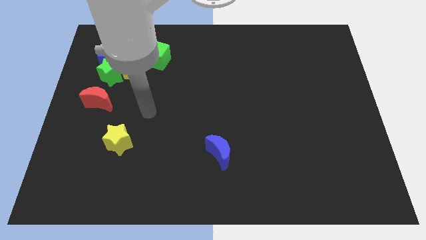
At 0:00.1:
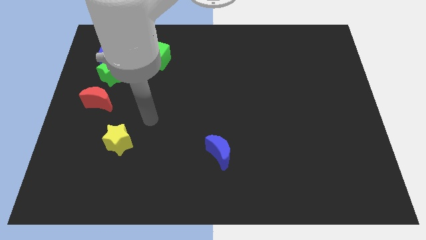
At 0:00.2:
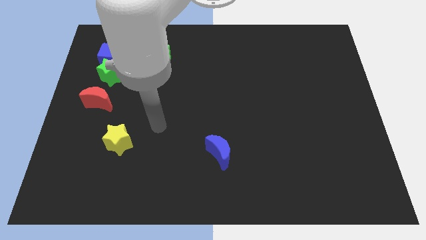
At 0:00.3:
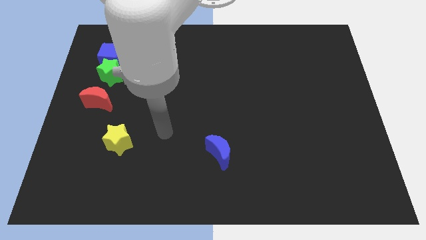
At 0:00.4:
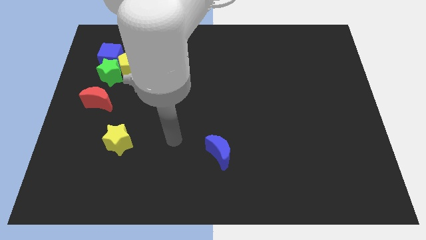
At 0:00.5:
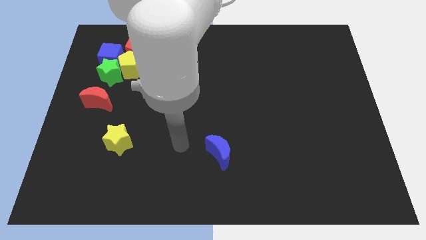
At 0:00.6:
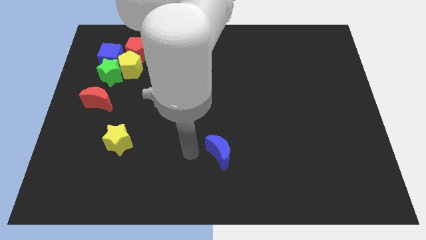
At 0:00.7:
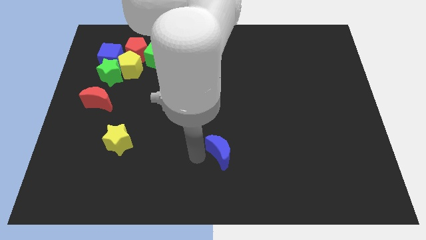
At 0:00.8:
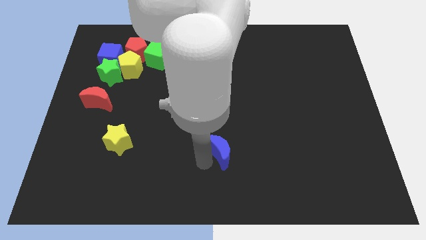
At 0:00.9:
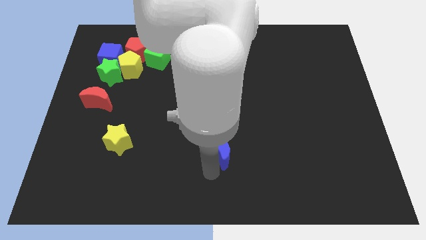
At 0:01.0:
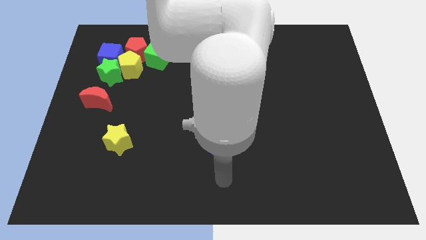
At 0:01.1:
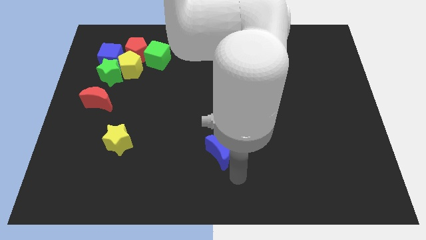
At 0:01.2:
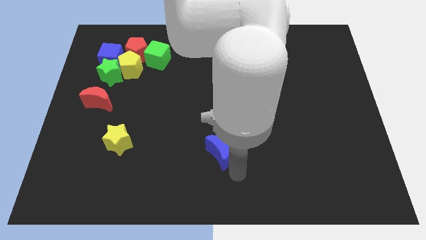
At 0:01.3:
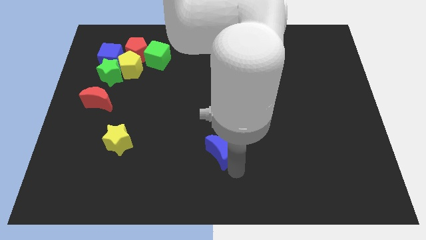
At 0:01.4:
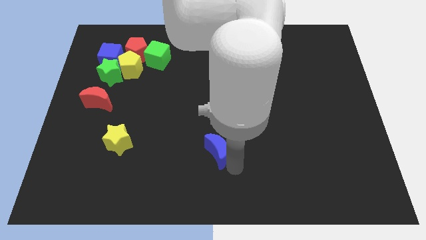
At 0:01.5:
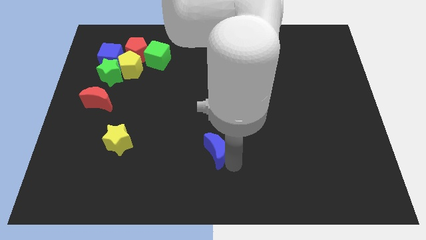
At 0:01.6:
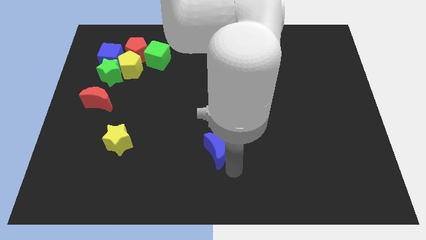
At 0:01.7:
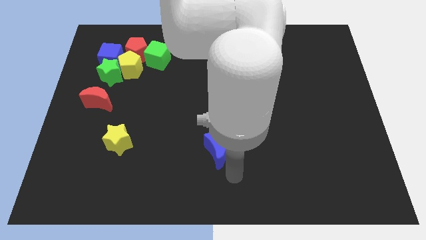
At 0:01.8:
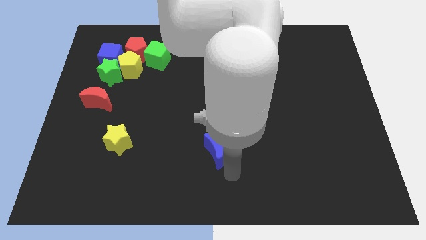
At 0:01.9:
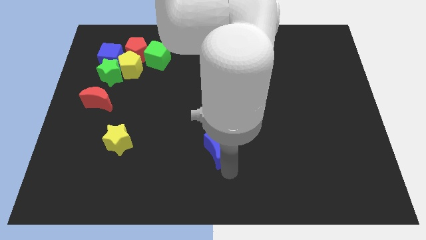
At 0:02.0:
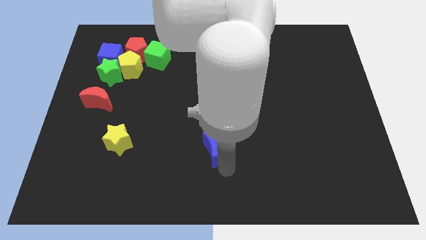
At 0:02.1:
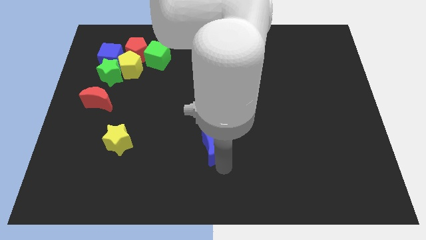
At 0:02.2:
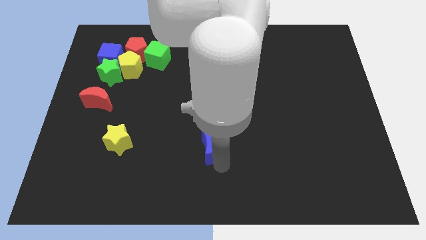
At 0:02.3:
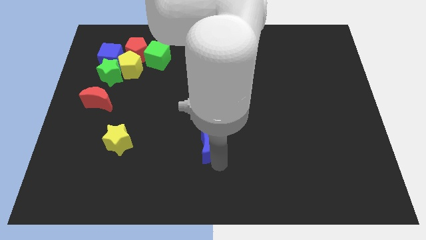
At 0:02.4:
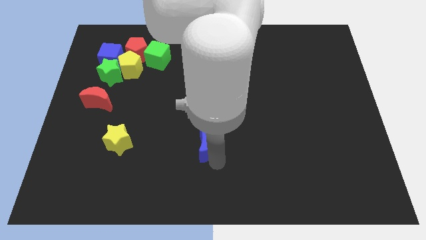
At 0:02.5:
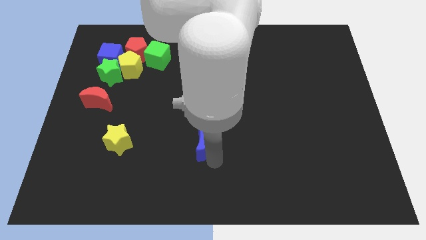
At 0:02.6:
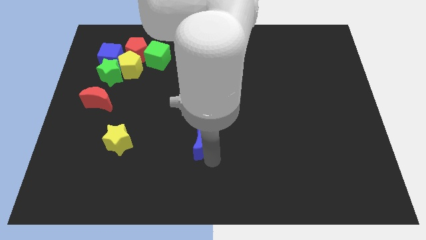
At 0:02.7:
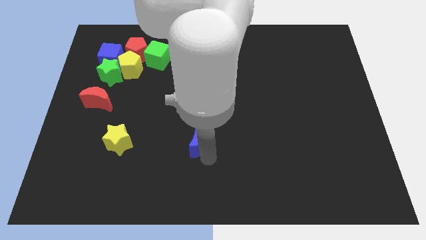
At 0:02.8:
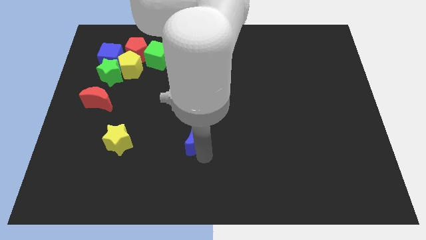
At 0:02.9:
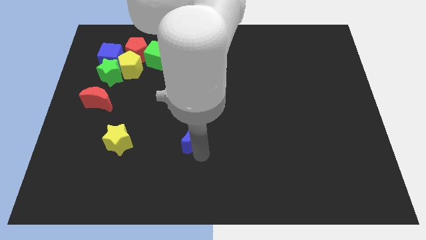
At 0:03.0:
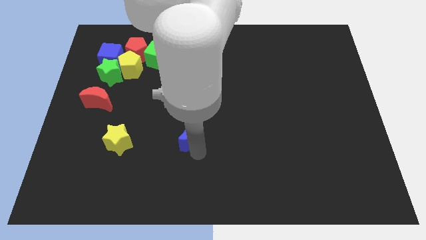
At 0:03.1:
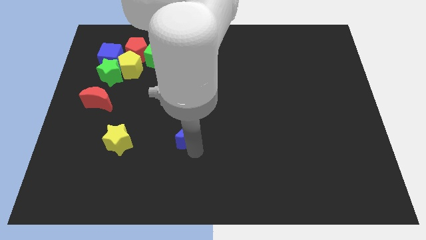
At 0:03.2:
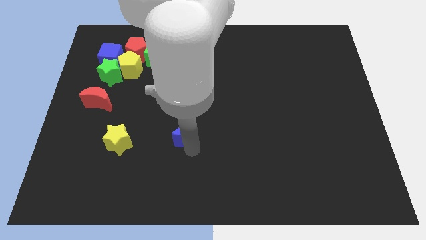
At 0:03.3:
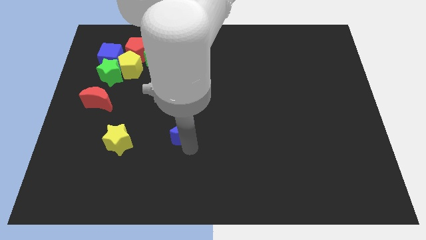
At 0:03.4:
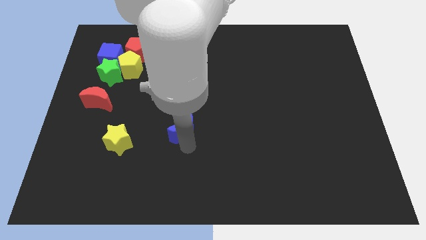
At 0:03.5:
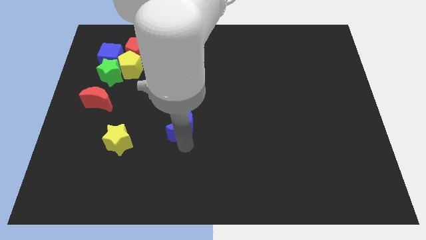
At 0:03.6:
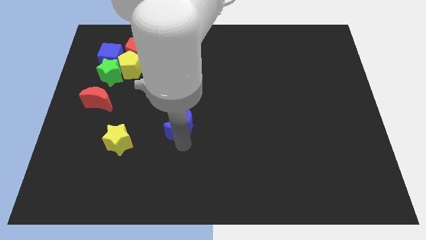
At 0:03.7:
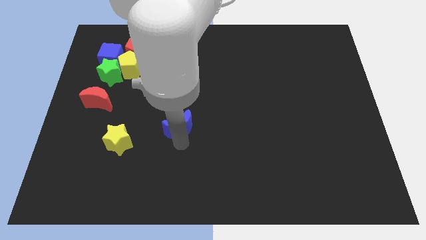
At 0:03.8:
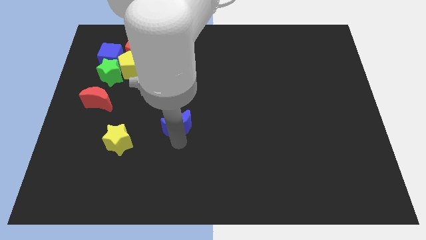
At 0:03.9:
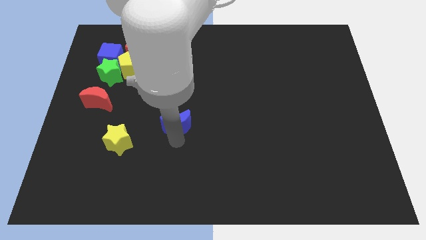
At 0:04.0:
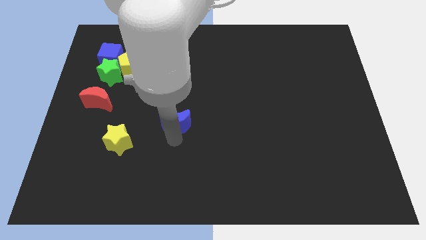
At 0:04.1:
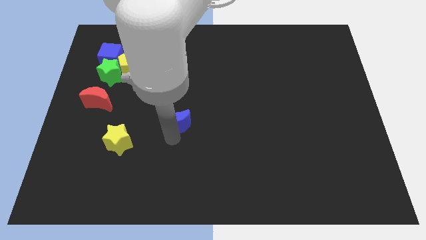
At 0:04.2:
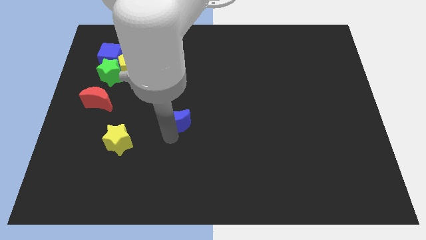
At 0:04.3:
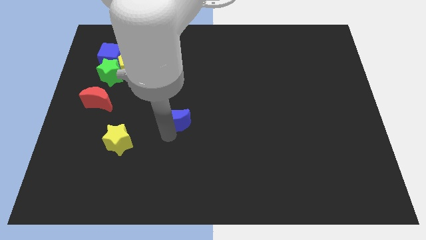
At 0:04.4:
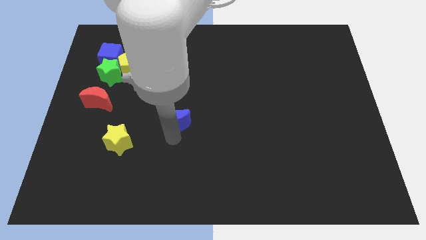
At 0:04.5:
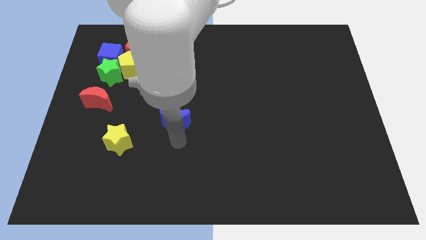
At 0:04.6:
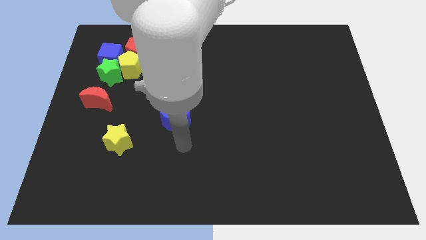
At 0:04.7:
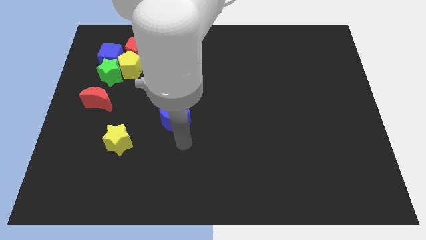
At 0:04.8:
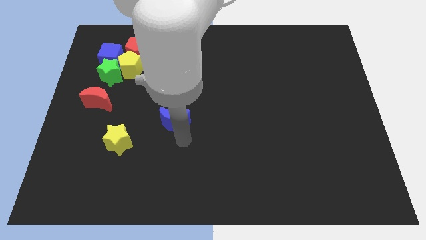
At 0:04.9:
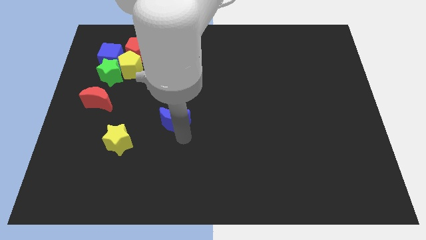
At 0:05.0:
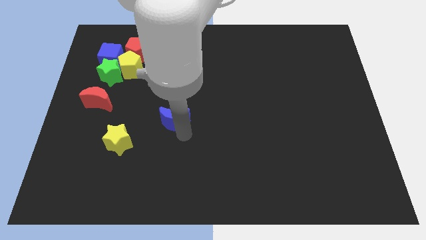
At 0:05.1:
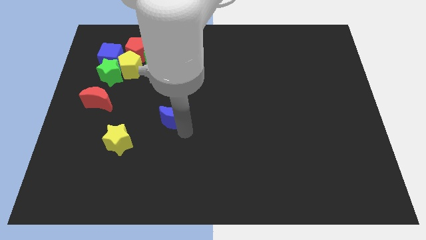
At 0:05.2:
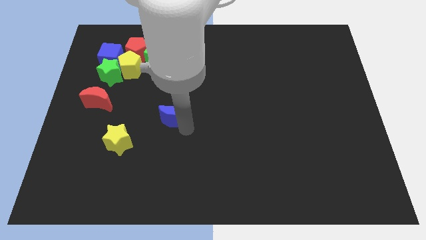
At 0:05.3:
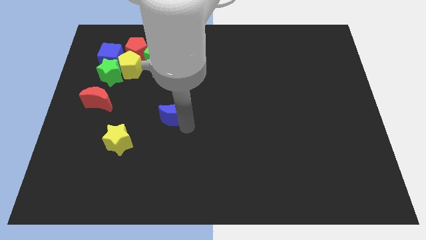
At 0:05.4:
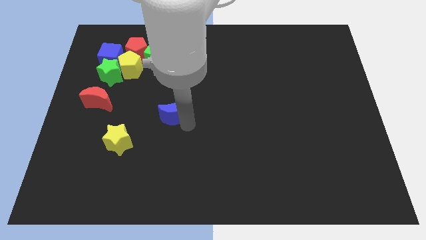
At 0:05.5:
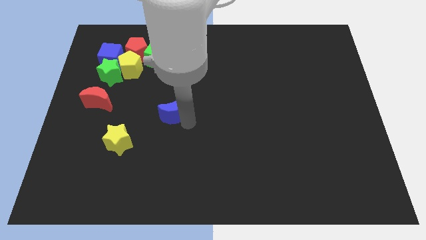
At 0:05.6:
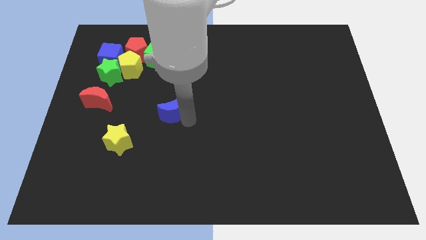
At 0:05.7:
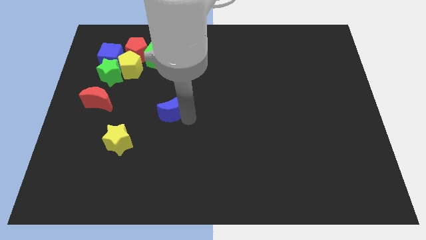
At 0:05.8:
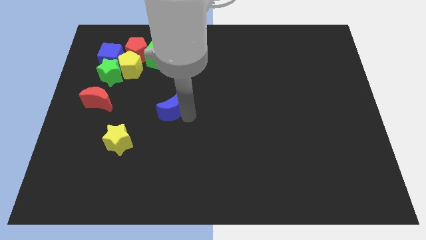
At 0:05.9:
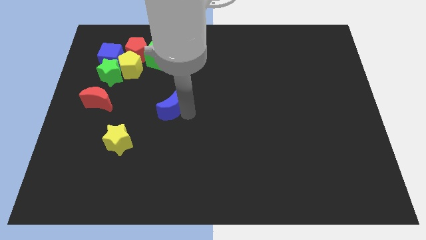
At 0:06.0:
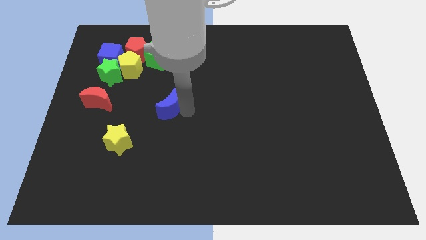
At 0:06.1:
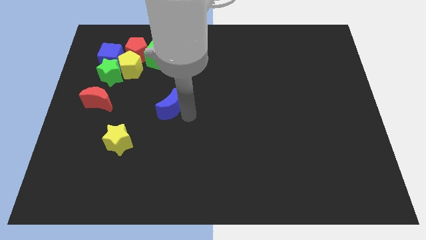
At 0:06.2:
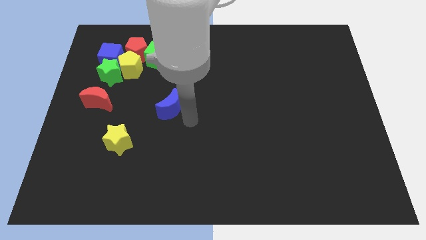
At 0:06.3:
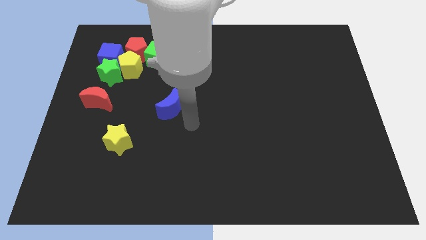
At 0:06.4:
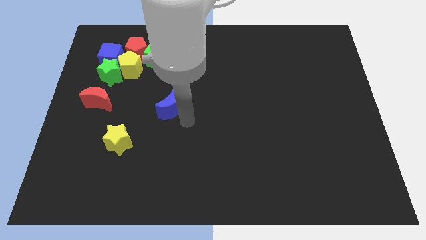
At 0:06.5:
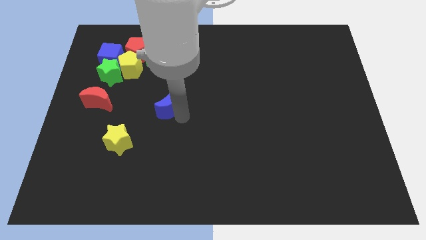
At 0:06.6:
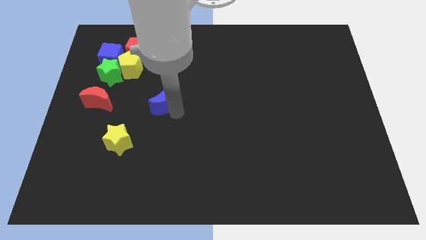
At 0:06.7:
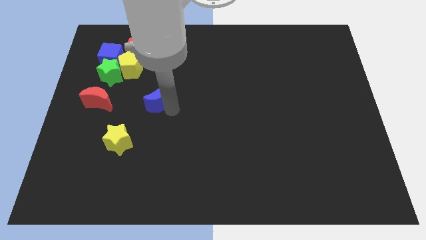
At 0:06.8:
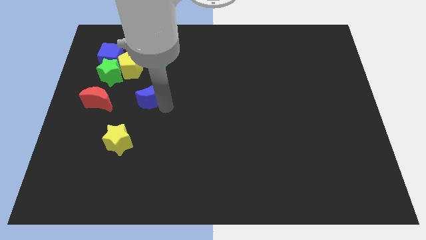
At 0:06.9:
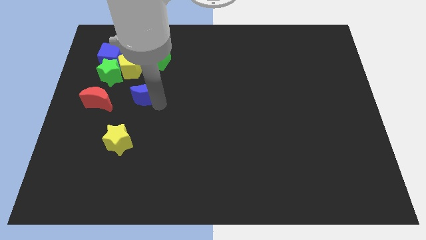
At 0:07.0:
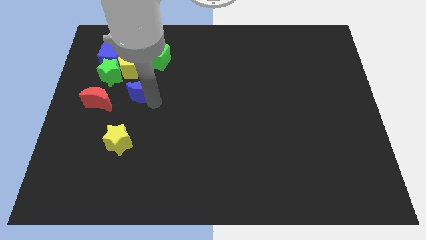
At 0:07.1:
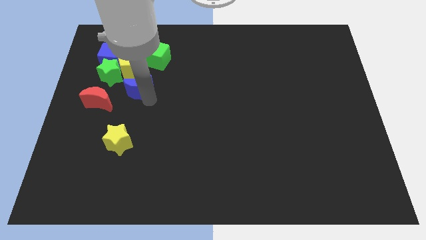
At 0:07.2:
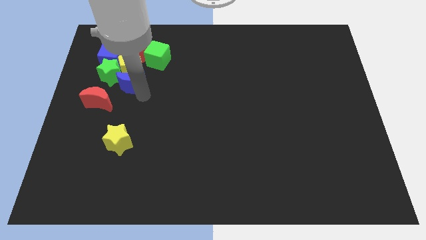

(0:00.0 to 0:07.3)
move the blue moon to the yellow pentagon
